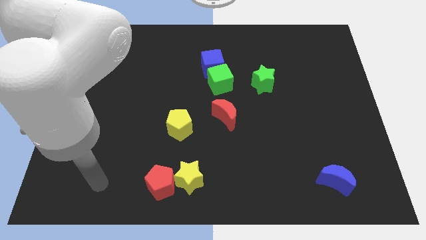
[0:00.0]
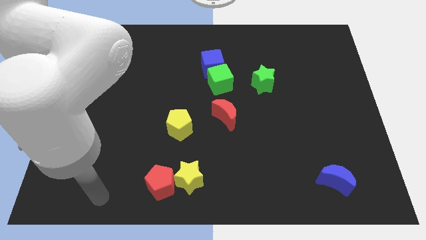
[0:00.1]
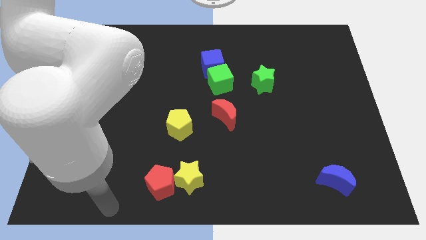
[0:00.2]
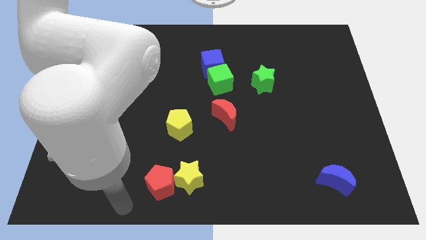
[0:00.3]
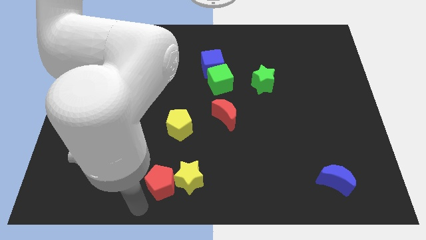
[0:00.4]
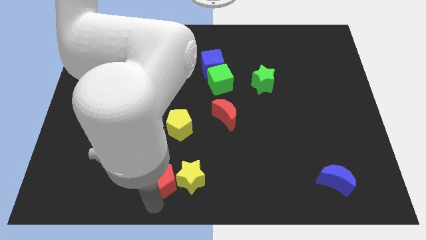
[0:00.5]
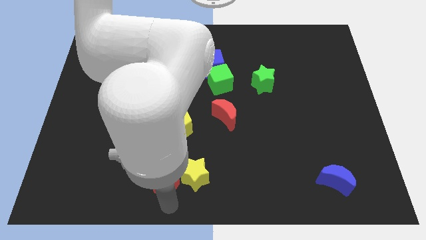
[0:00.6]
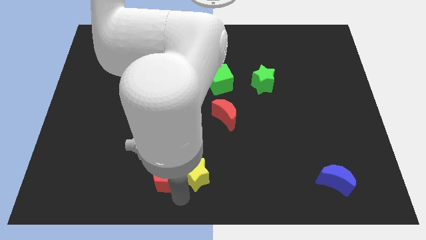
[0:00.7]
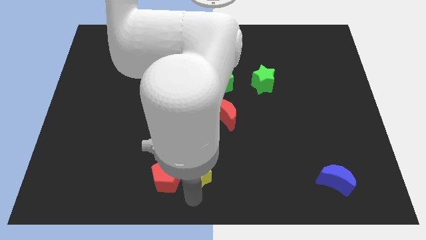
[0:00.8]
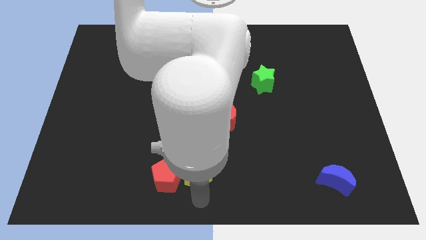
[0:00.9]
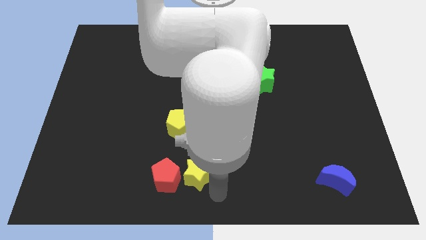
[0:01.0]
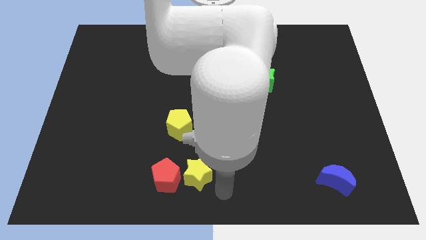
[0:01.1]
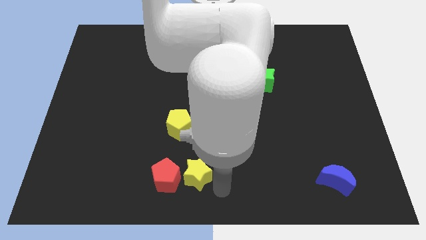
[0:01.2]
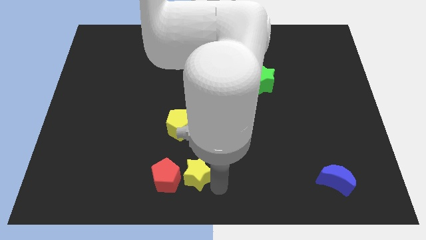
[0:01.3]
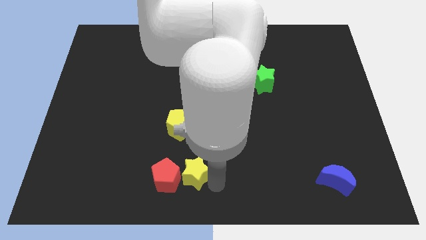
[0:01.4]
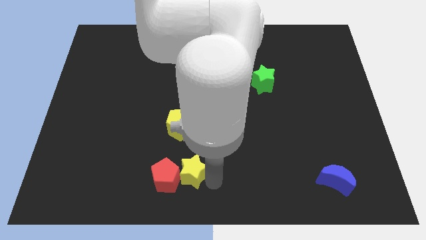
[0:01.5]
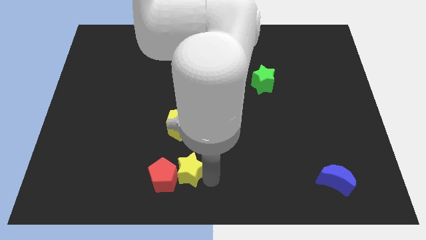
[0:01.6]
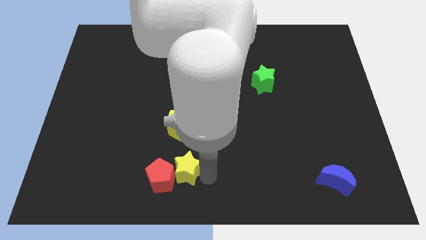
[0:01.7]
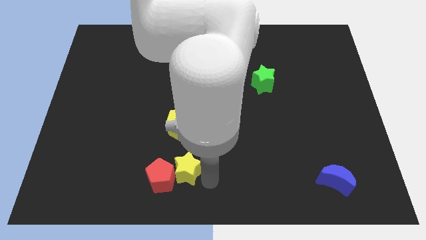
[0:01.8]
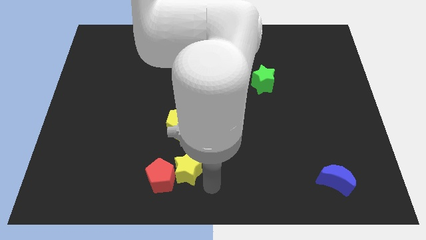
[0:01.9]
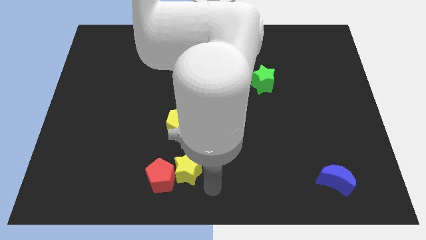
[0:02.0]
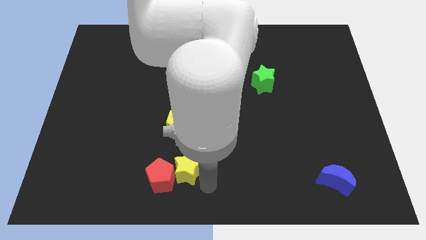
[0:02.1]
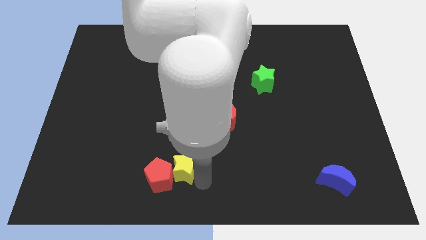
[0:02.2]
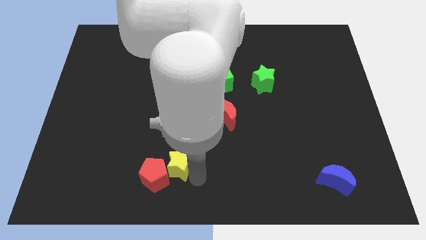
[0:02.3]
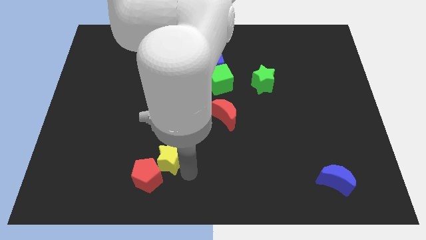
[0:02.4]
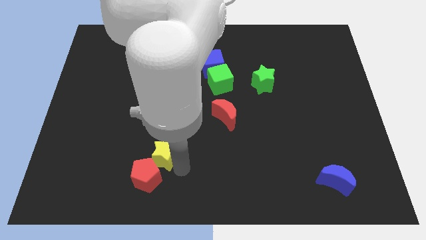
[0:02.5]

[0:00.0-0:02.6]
move the yellow star a little up and left diagonally

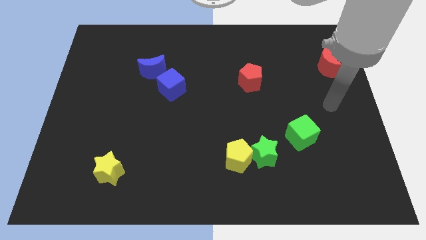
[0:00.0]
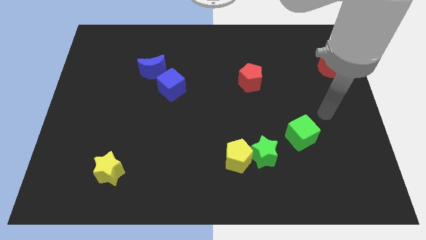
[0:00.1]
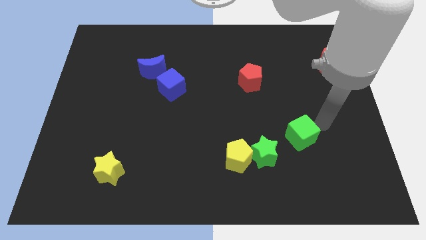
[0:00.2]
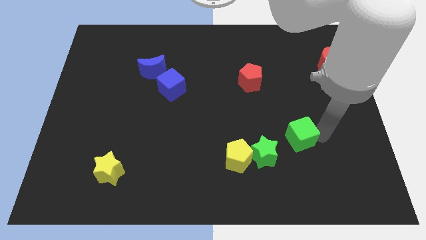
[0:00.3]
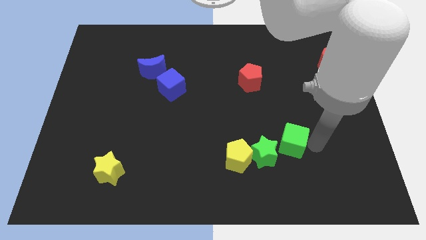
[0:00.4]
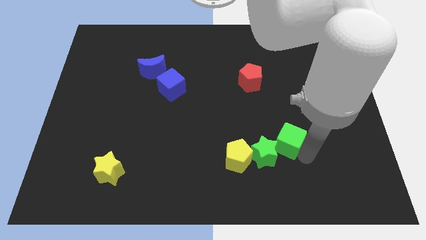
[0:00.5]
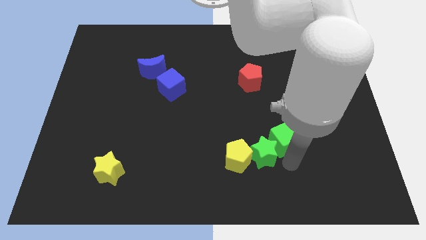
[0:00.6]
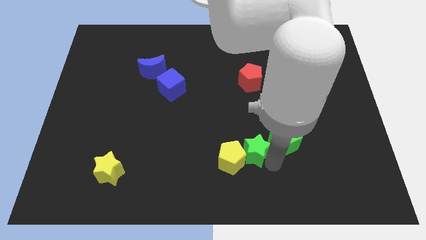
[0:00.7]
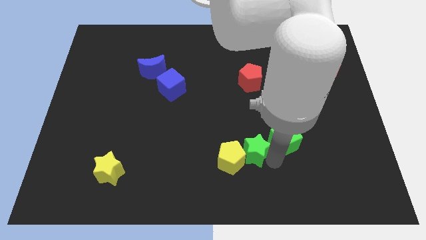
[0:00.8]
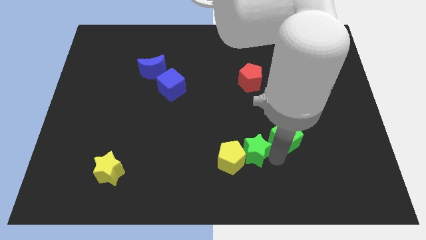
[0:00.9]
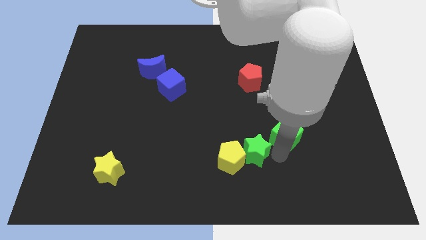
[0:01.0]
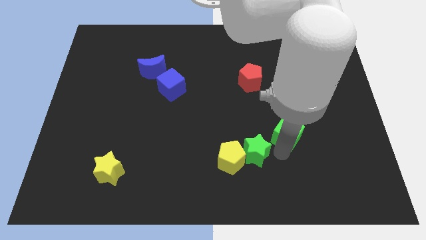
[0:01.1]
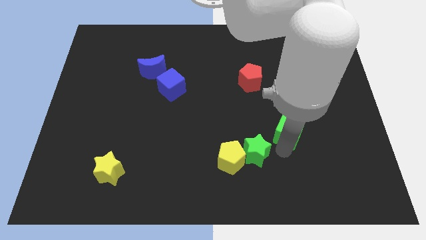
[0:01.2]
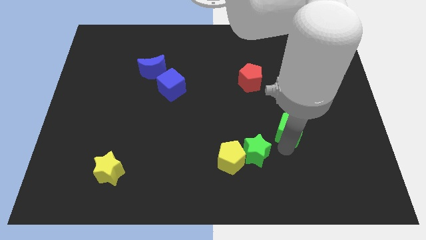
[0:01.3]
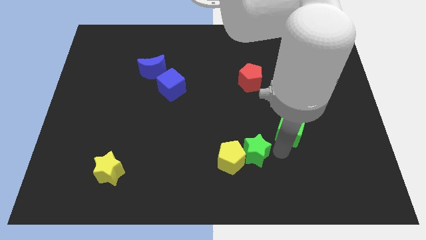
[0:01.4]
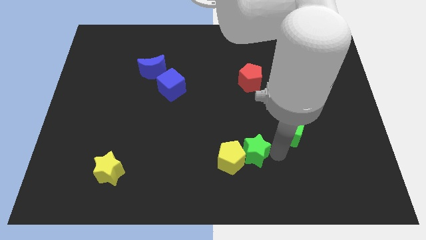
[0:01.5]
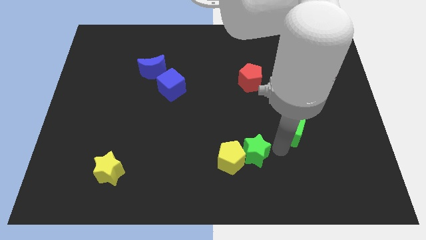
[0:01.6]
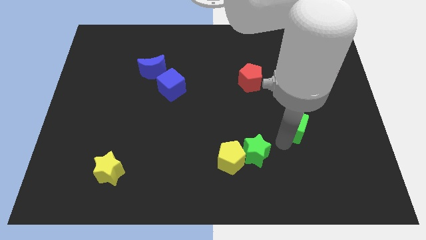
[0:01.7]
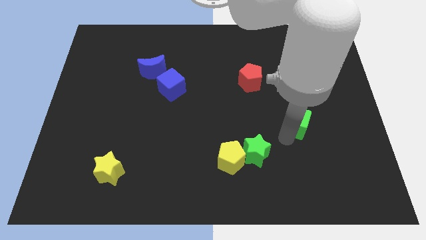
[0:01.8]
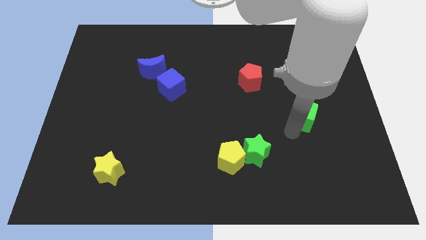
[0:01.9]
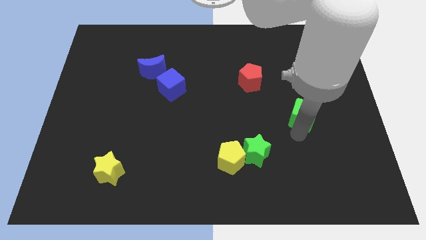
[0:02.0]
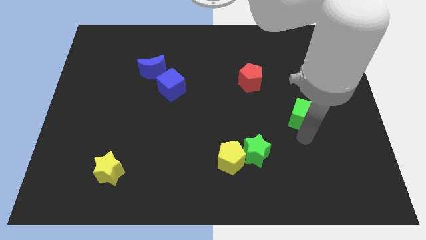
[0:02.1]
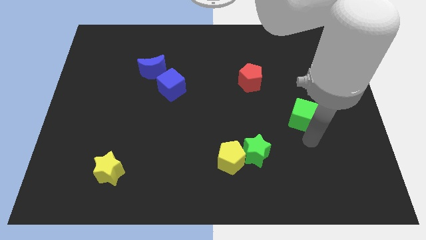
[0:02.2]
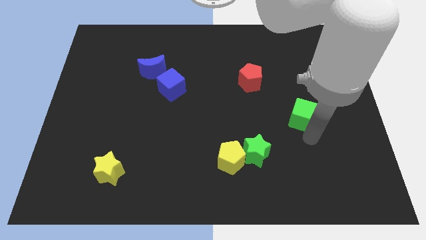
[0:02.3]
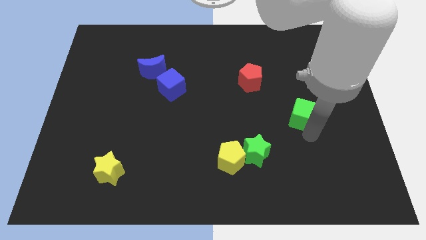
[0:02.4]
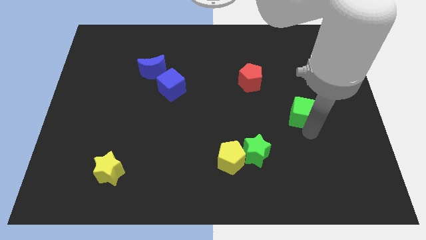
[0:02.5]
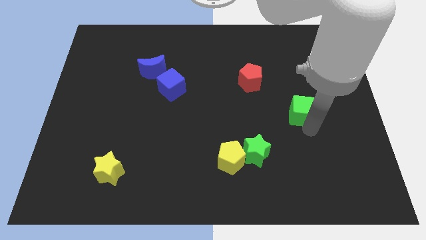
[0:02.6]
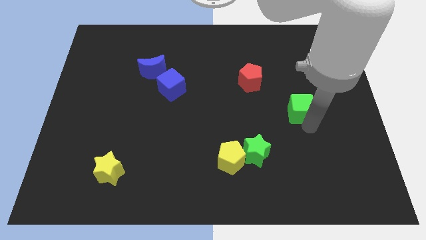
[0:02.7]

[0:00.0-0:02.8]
push the green cube up a little

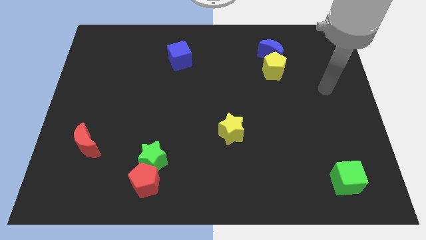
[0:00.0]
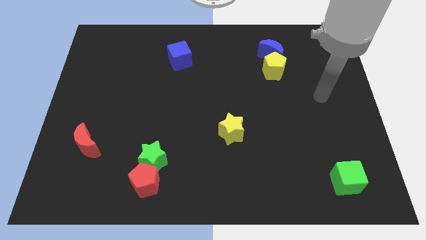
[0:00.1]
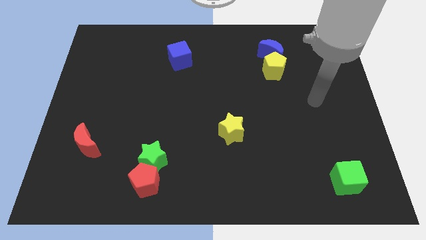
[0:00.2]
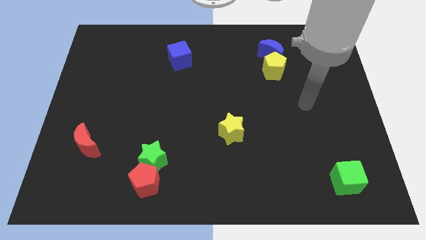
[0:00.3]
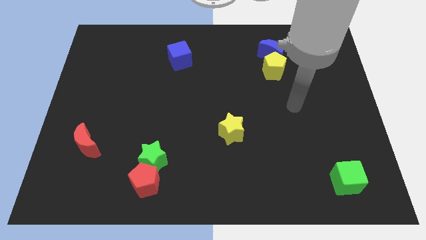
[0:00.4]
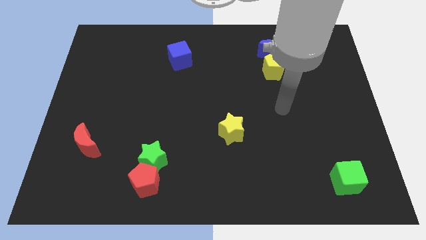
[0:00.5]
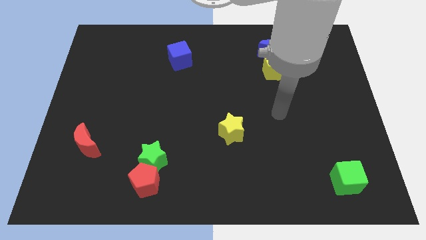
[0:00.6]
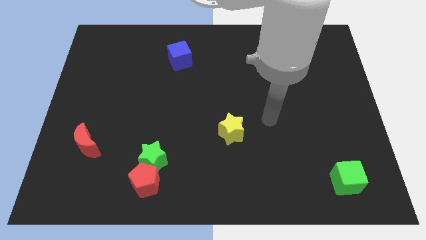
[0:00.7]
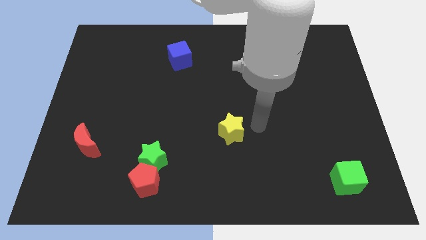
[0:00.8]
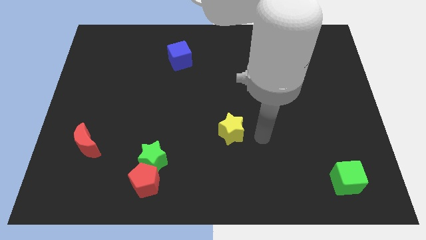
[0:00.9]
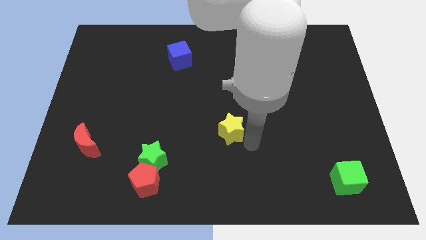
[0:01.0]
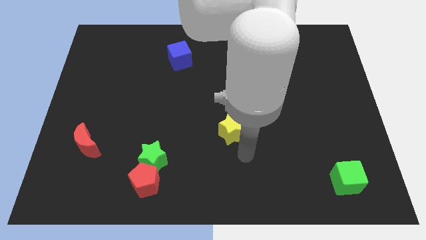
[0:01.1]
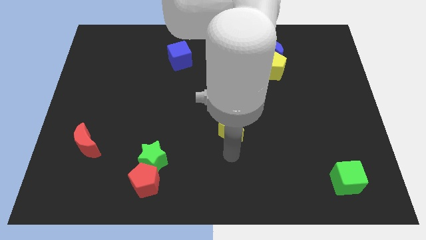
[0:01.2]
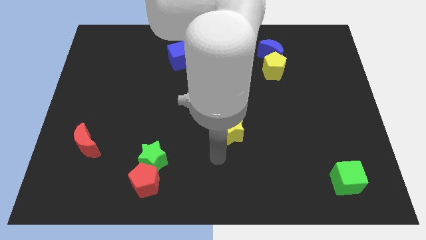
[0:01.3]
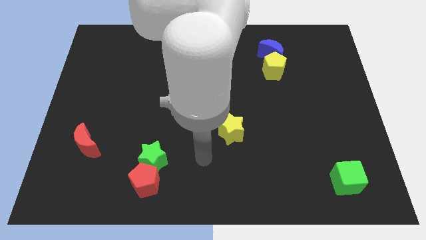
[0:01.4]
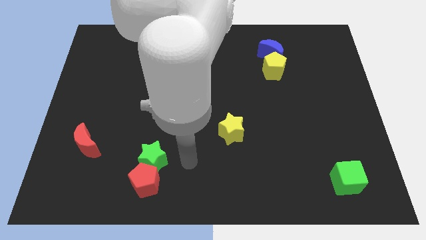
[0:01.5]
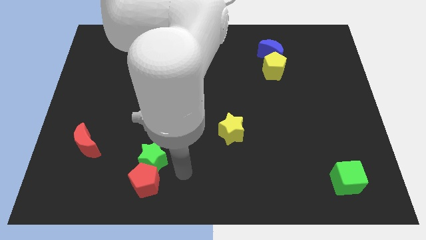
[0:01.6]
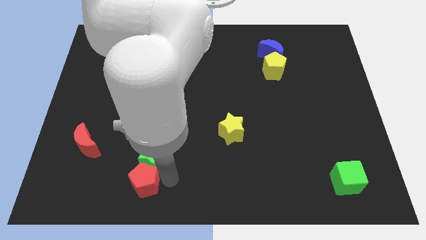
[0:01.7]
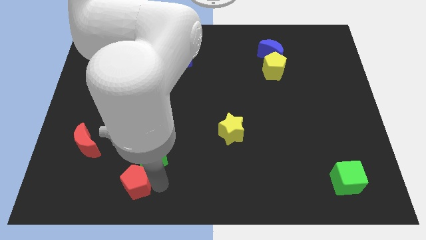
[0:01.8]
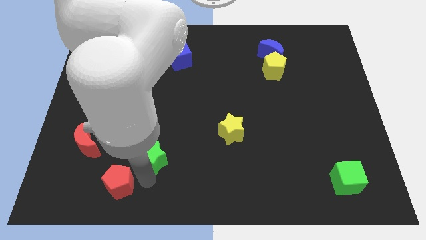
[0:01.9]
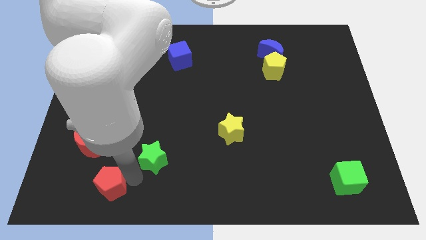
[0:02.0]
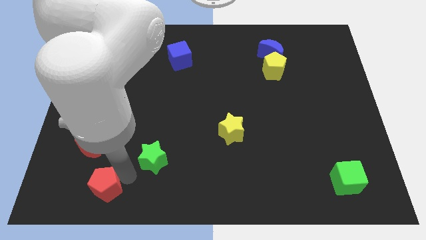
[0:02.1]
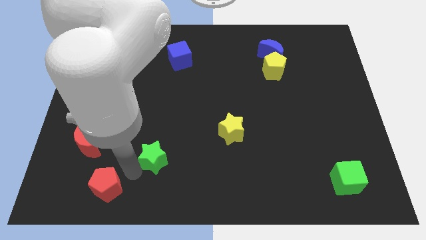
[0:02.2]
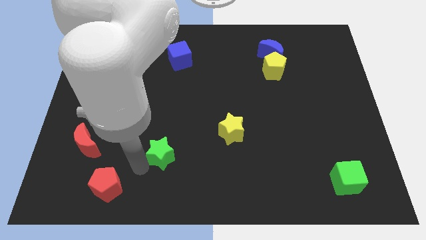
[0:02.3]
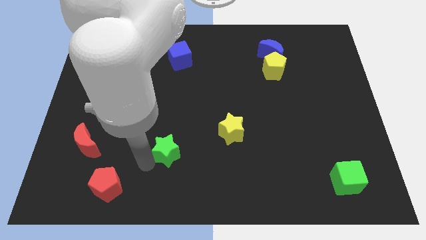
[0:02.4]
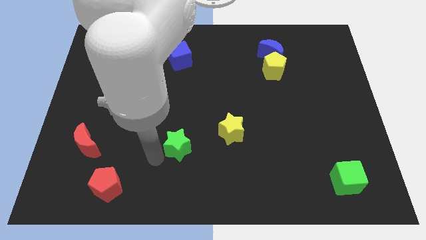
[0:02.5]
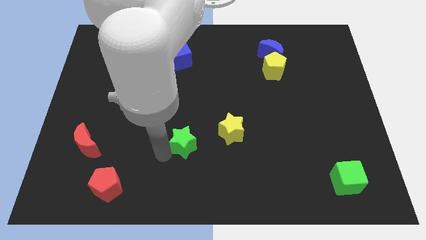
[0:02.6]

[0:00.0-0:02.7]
move the green star upwards and right a little
